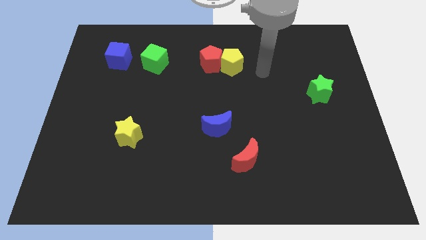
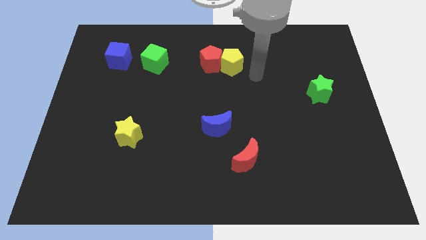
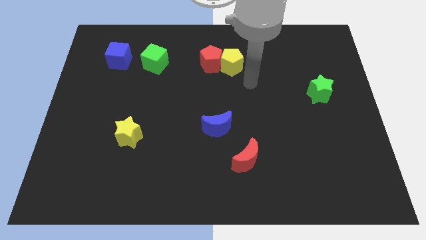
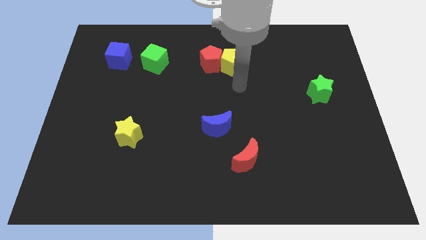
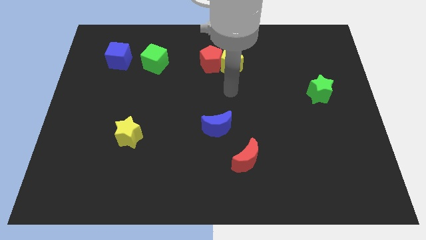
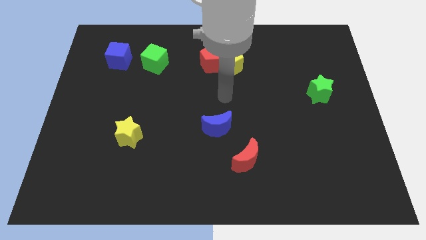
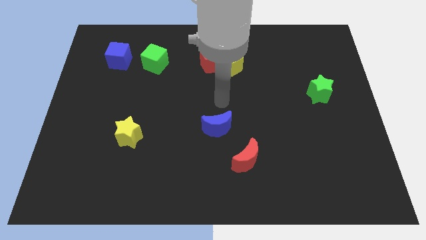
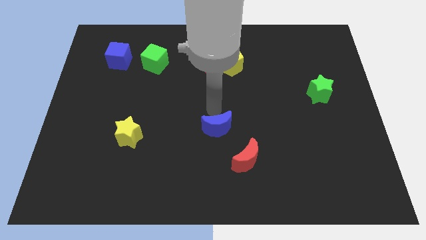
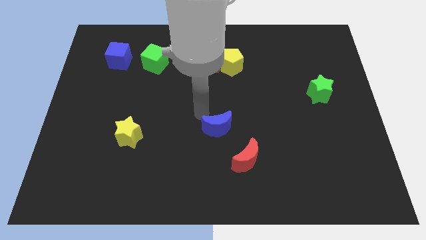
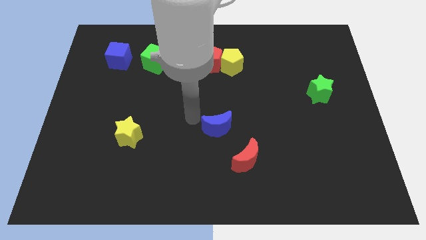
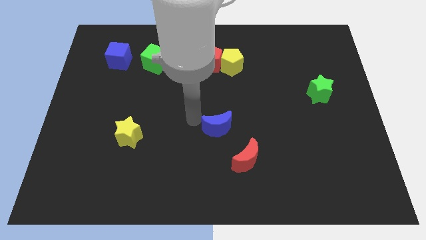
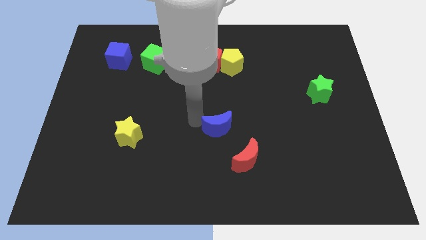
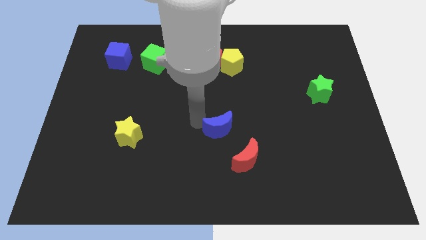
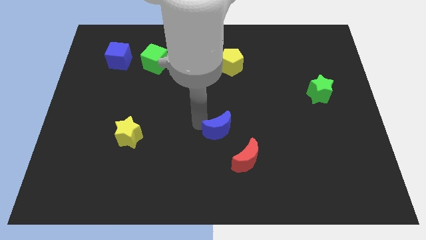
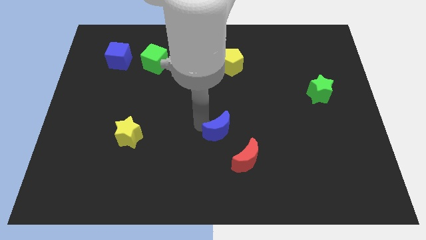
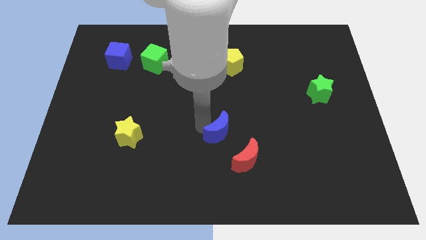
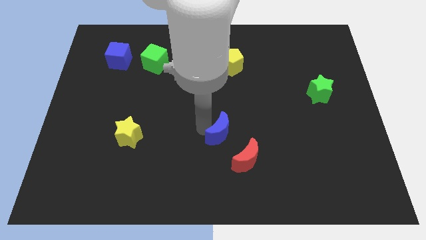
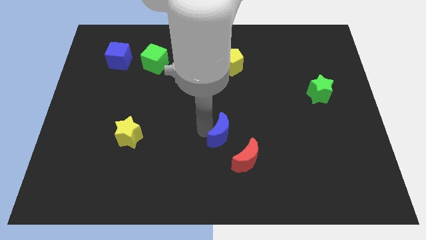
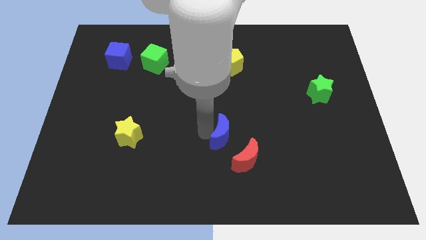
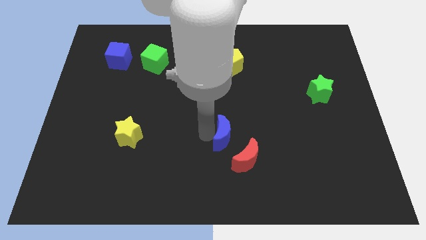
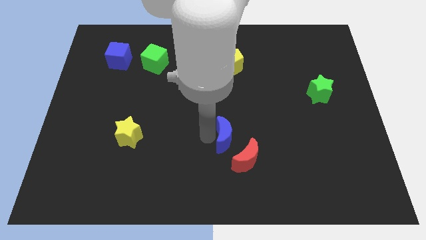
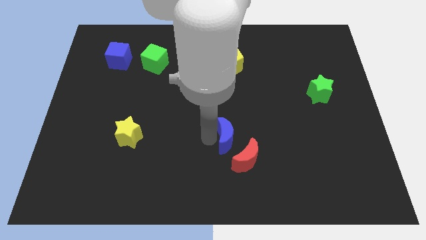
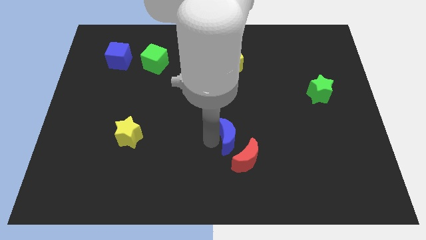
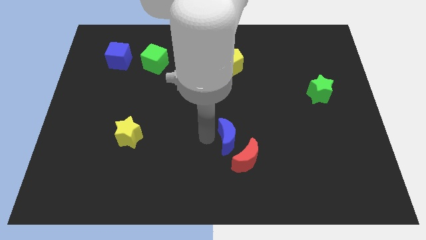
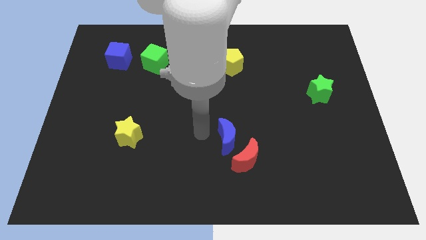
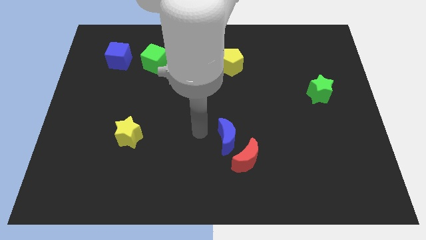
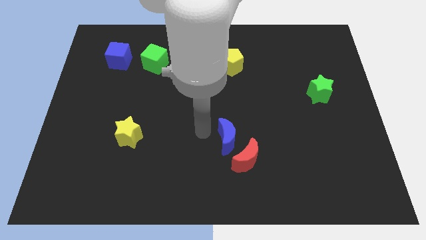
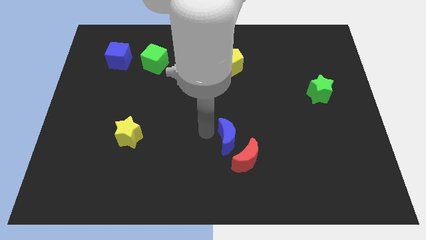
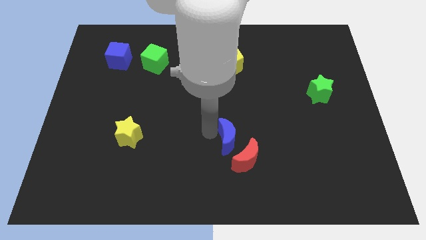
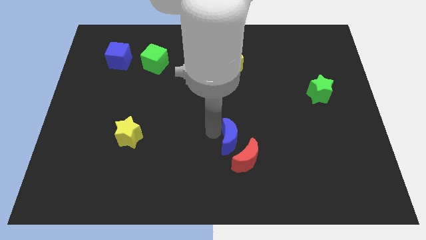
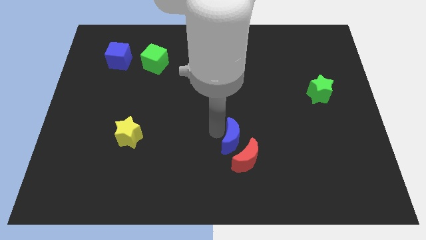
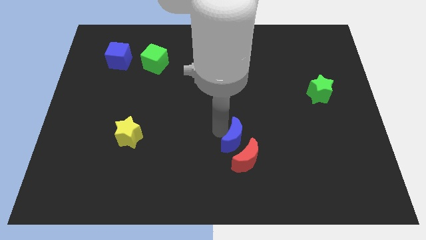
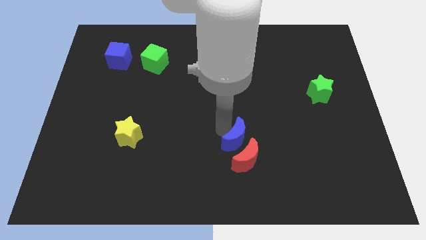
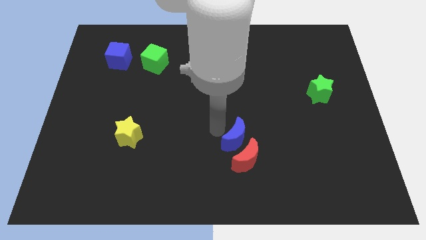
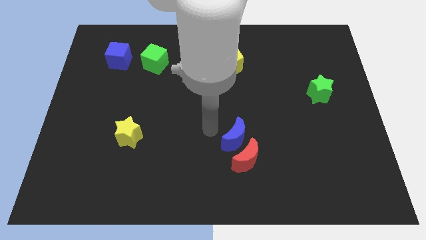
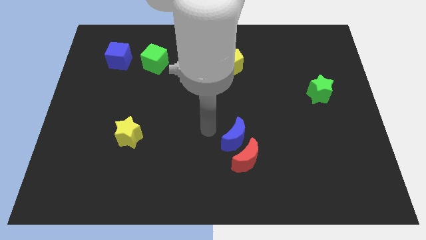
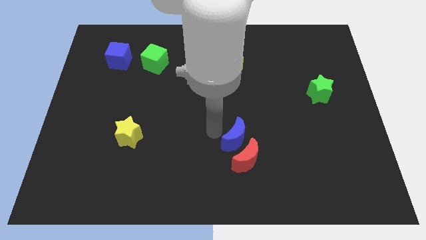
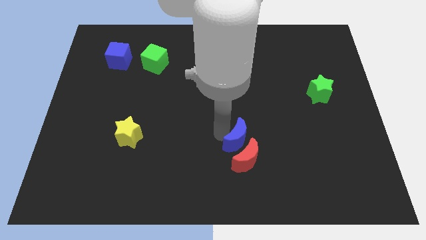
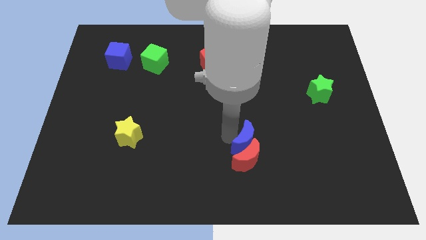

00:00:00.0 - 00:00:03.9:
slightly slide the blue moon downwards and then right

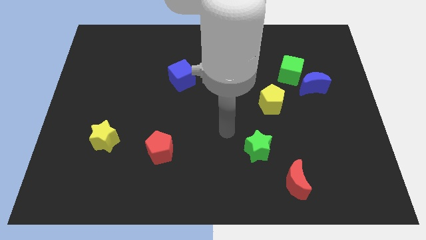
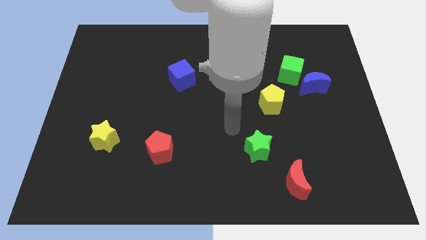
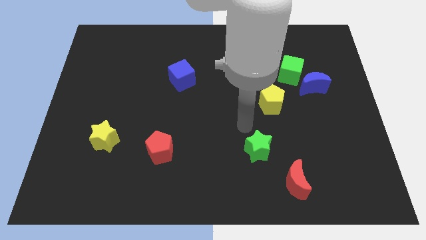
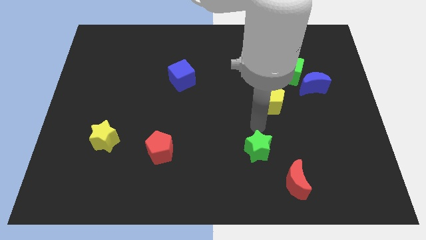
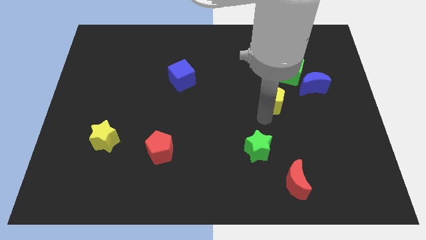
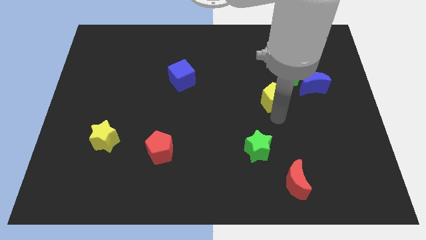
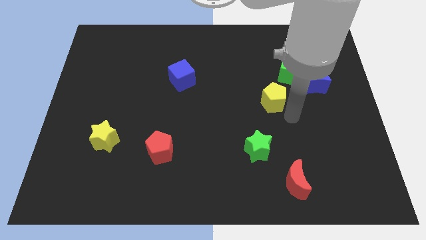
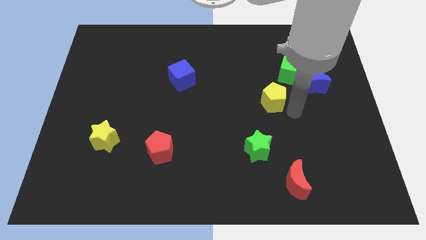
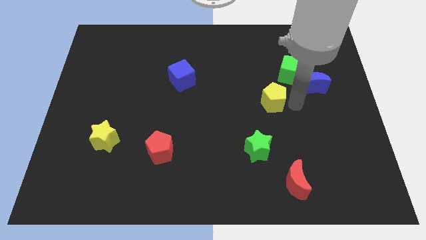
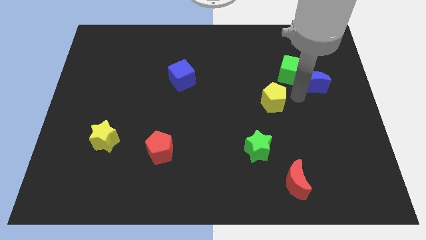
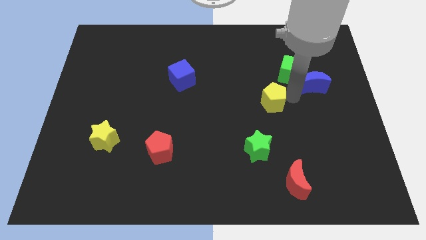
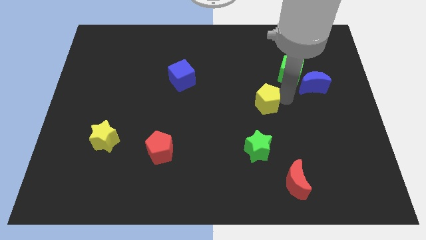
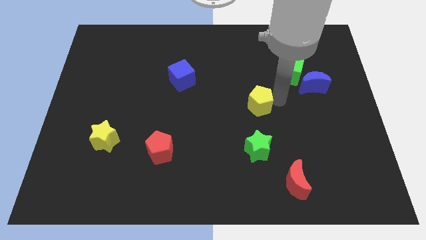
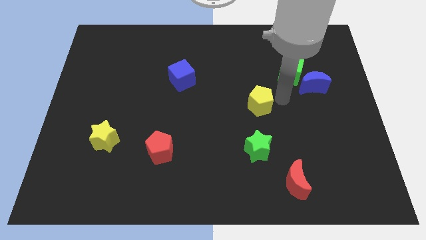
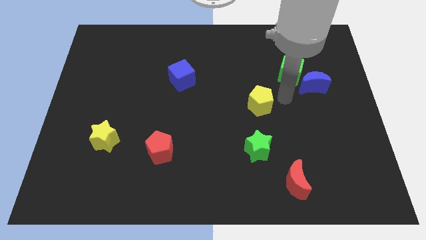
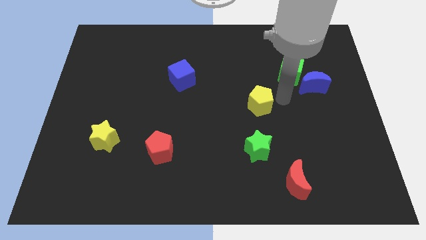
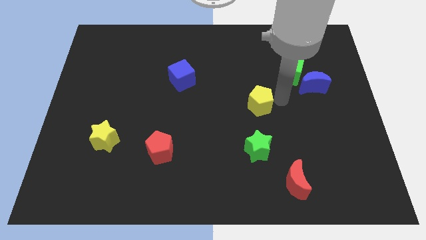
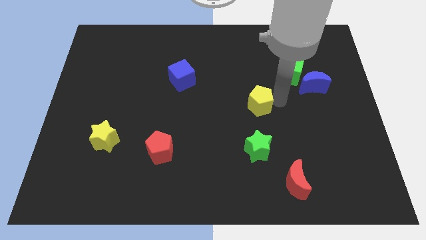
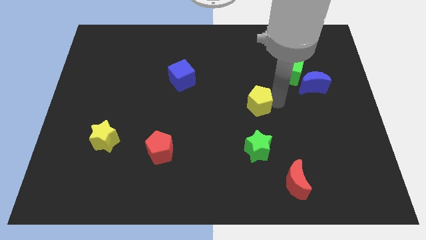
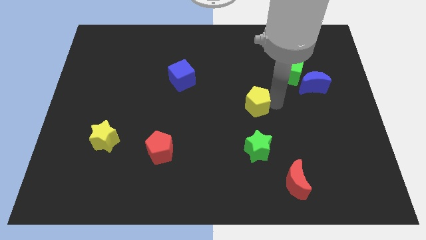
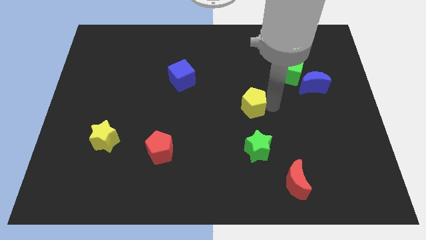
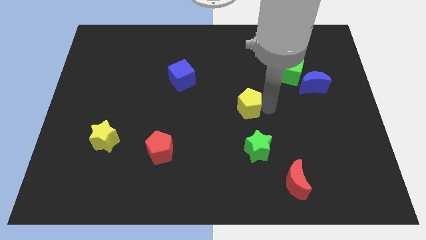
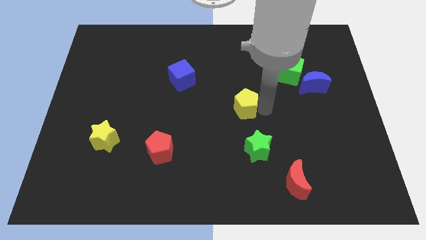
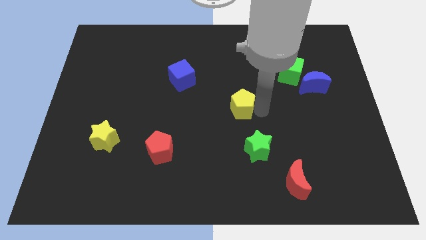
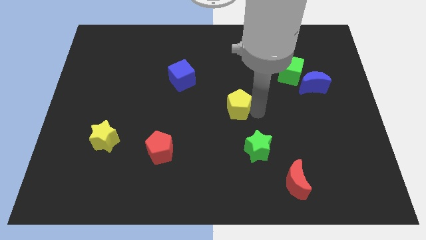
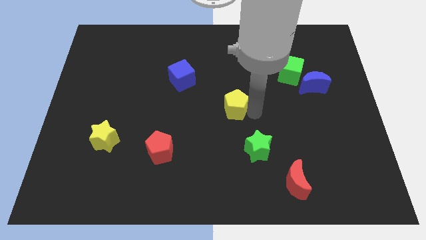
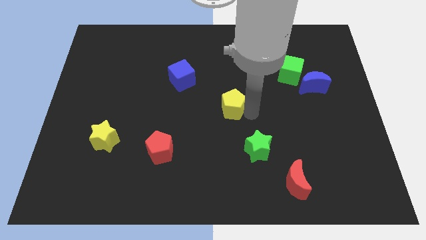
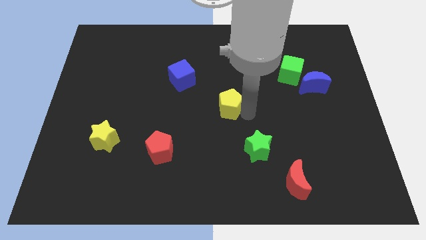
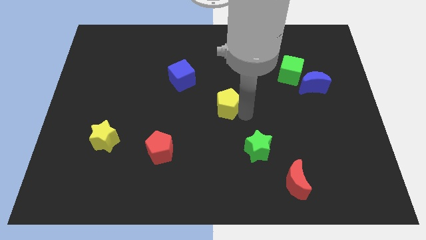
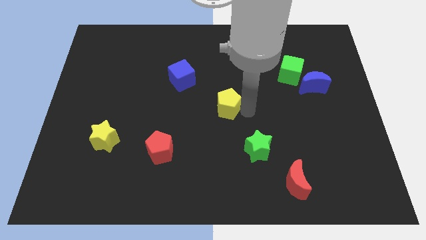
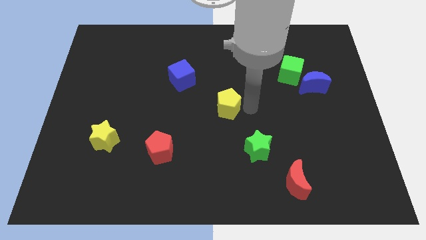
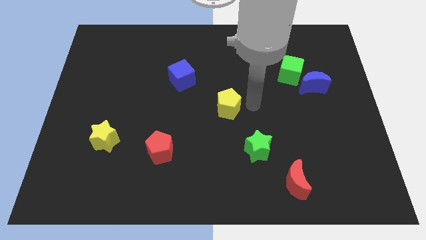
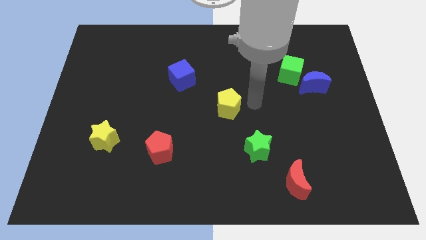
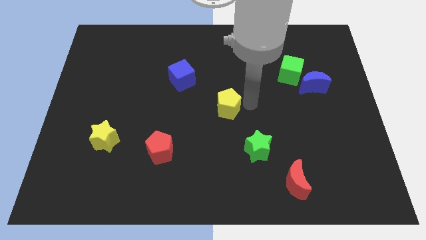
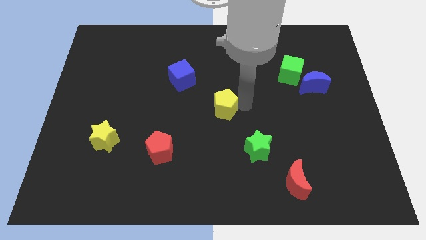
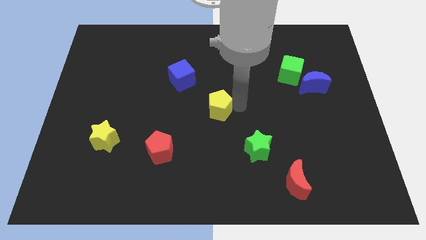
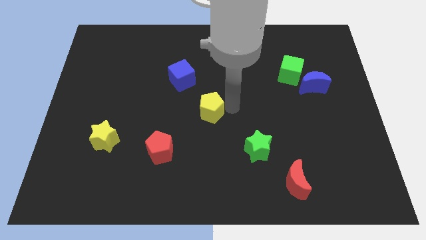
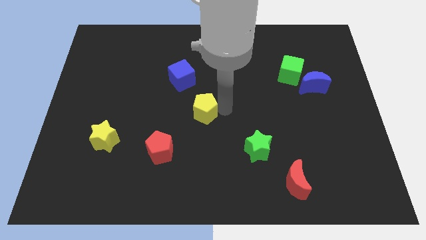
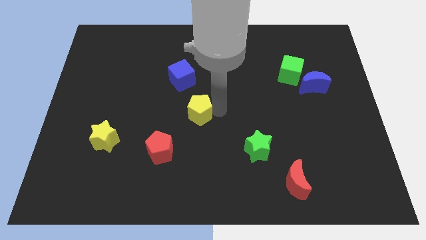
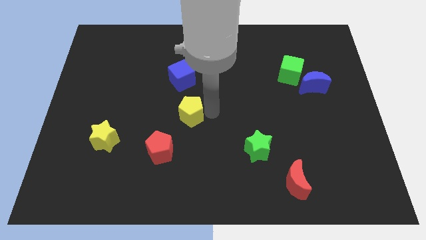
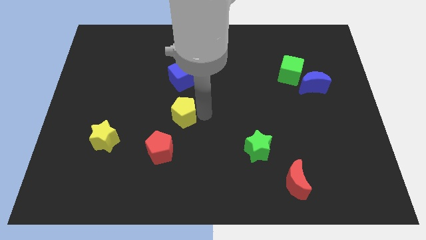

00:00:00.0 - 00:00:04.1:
push the yellow pentagon to the left
